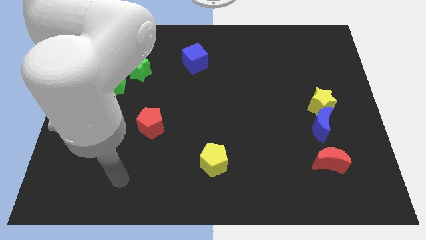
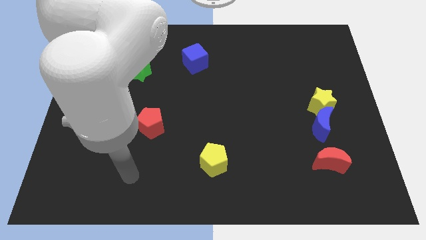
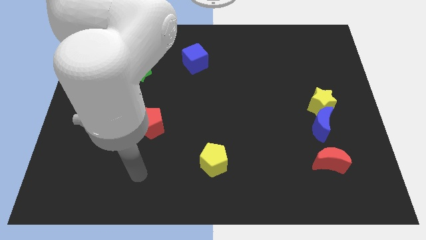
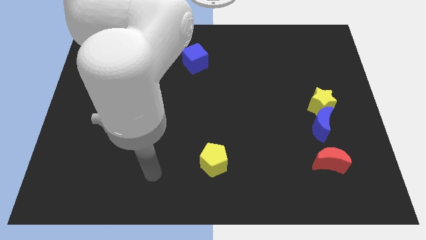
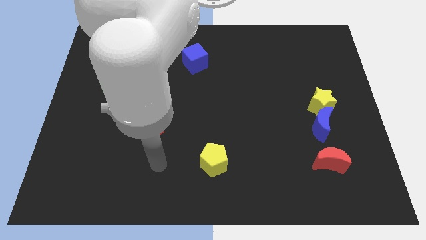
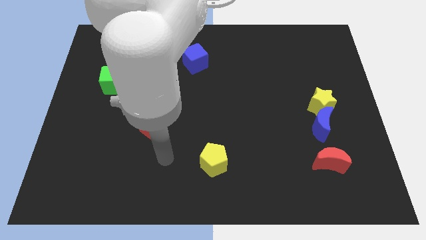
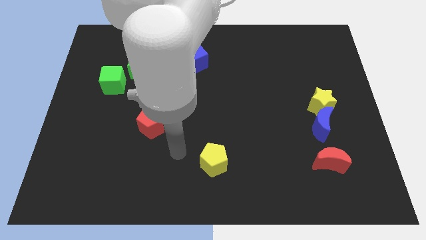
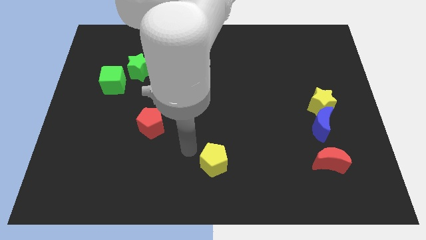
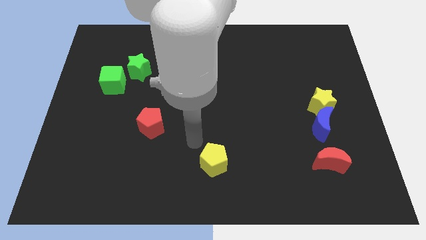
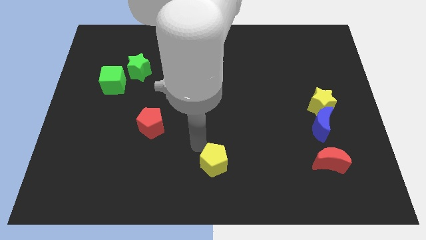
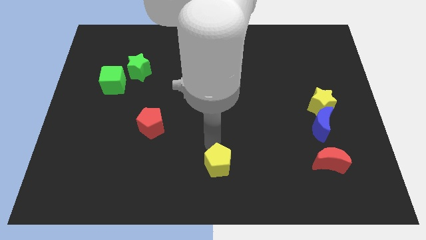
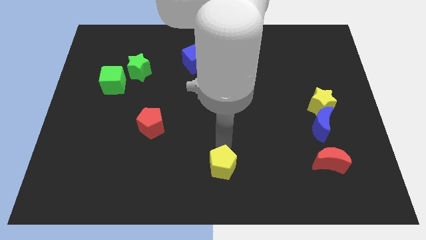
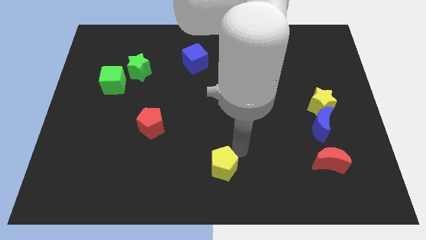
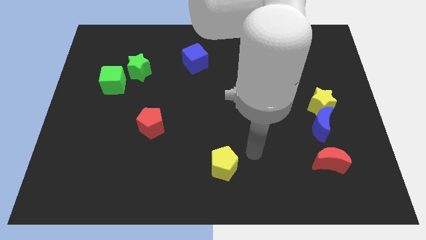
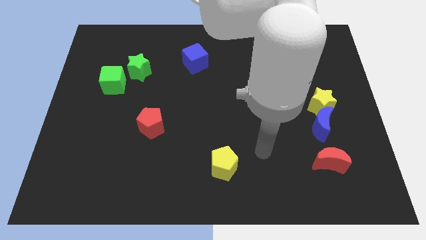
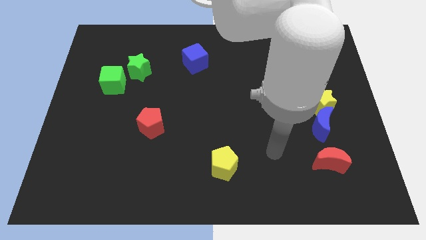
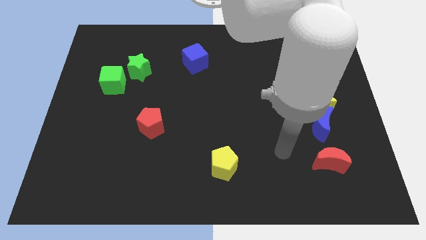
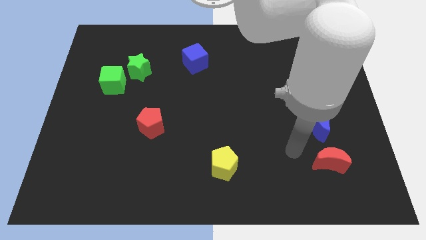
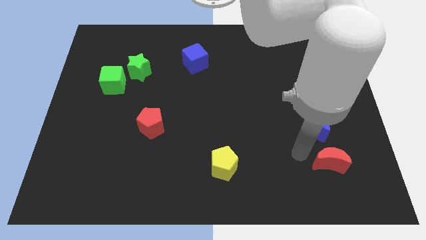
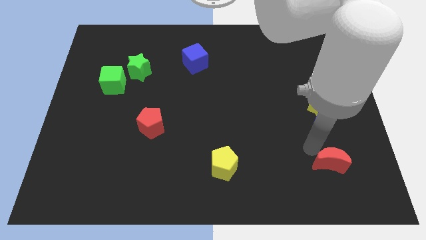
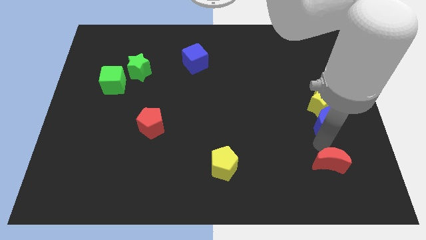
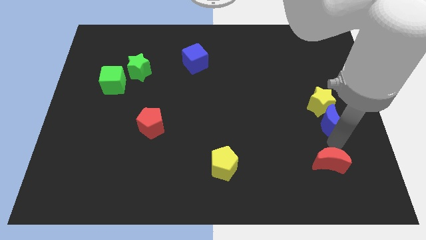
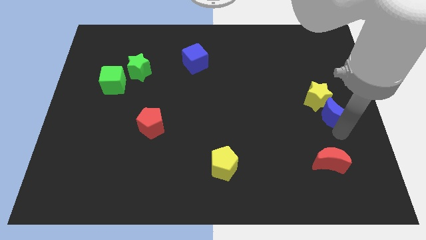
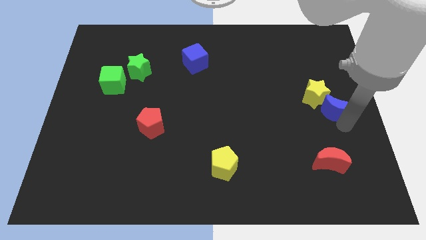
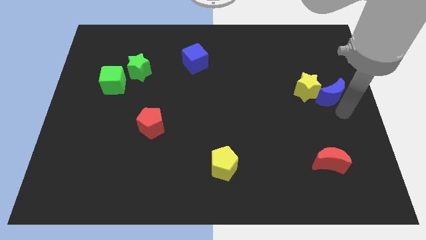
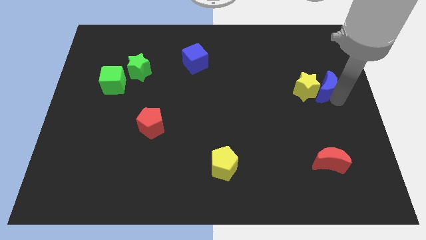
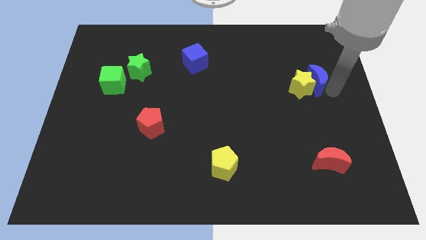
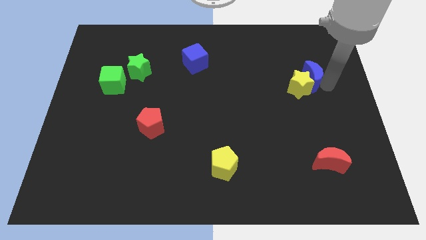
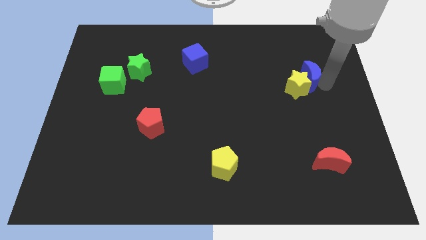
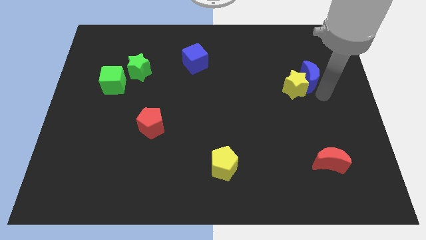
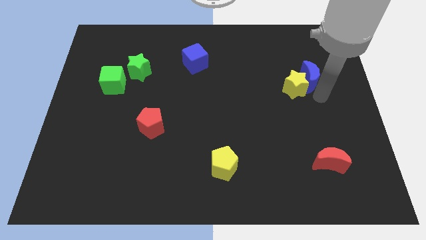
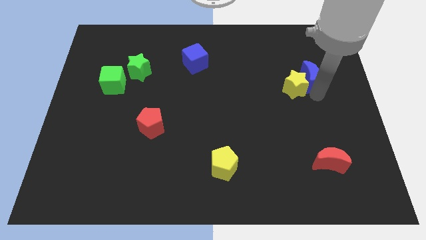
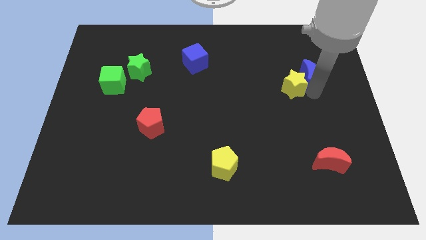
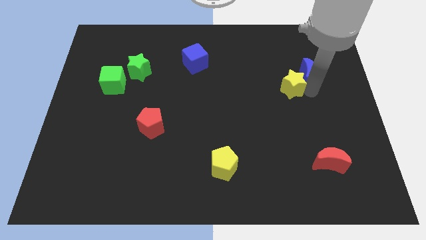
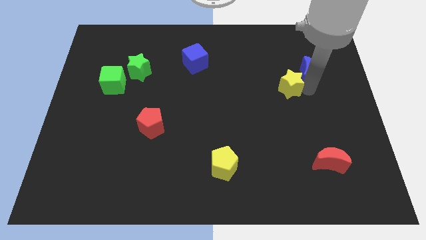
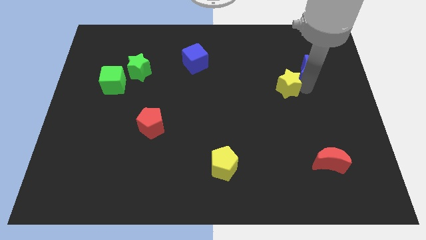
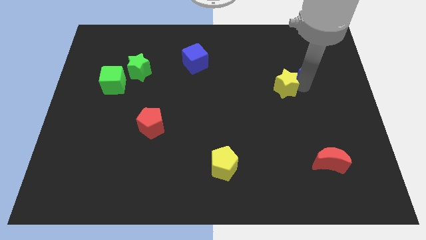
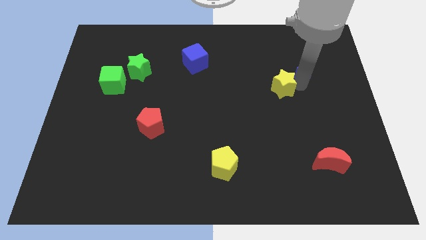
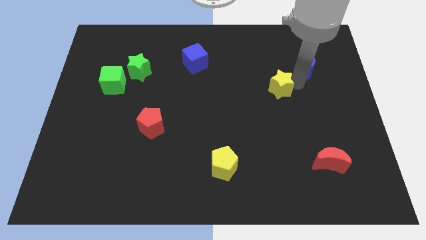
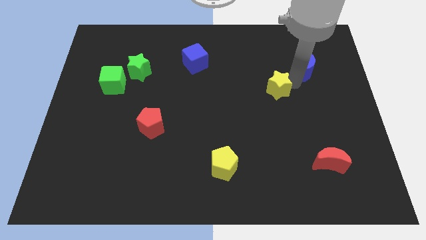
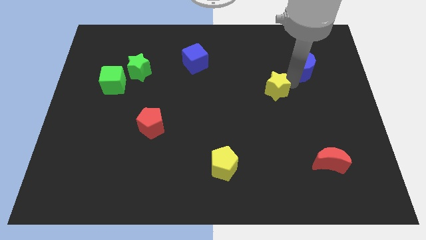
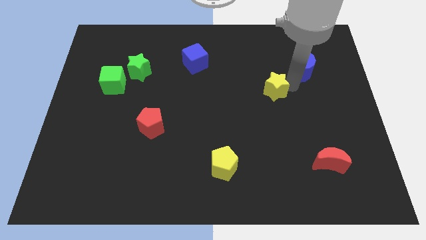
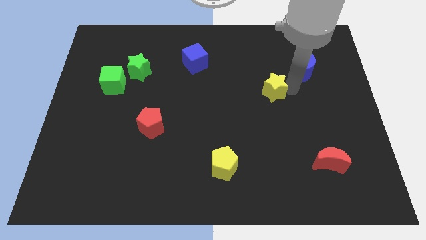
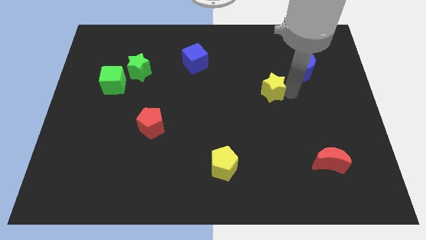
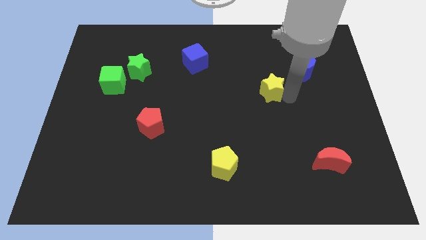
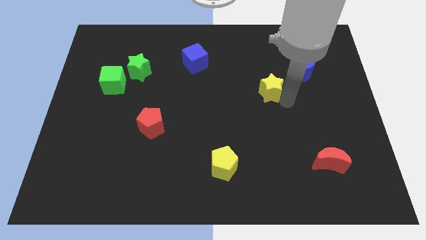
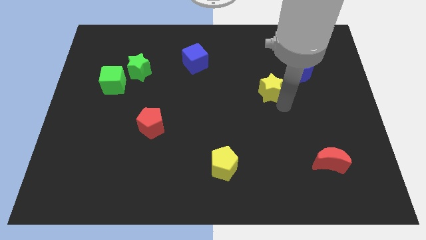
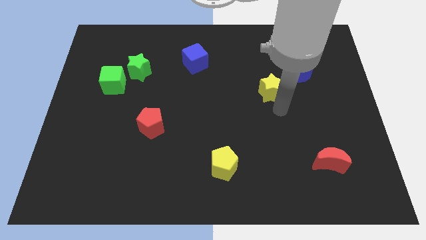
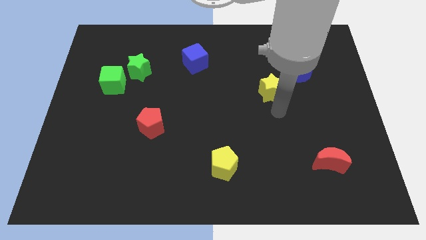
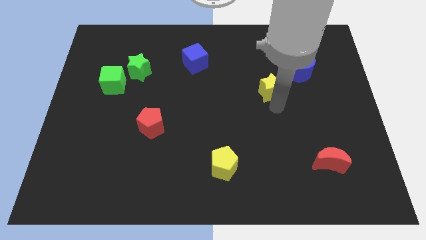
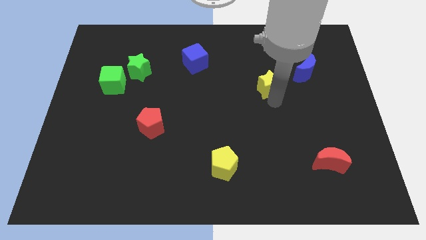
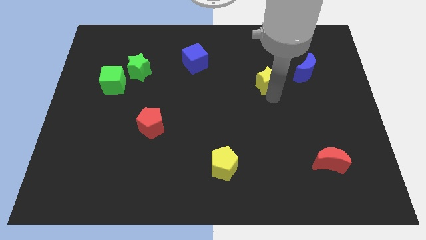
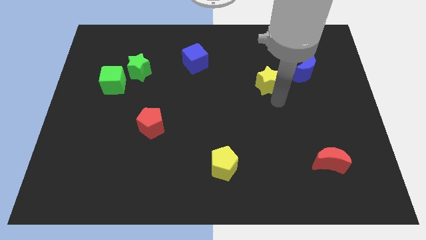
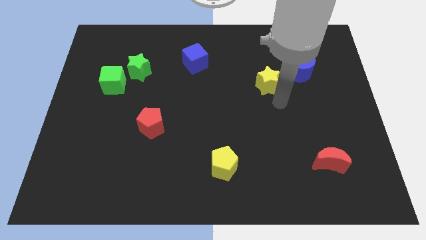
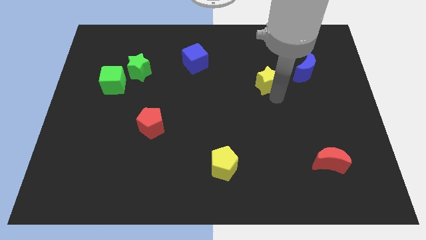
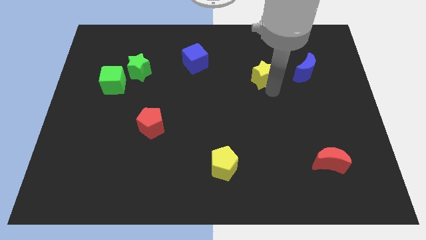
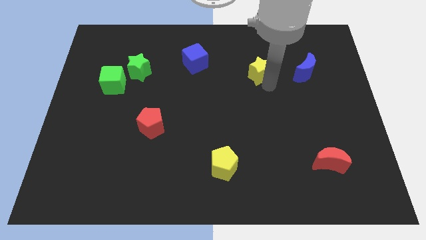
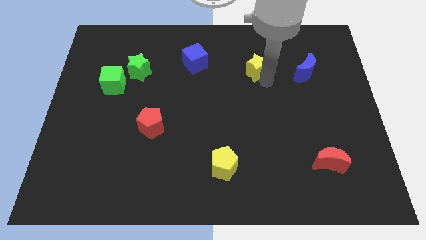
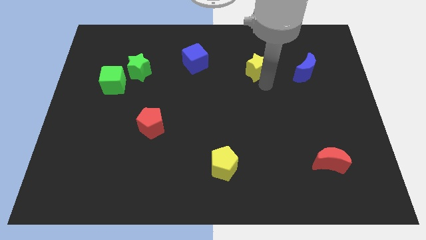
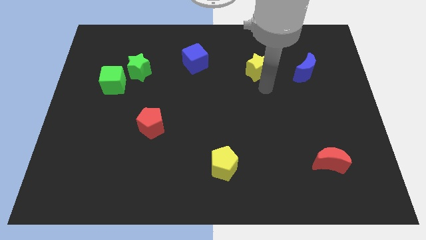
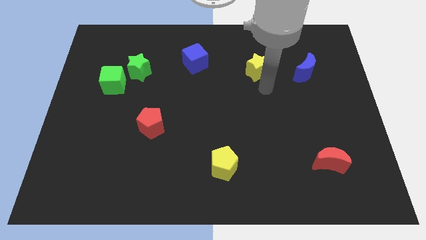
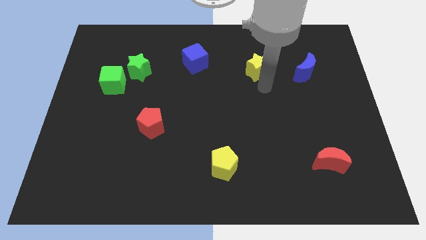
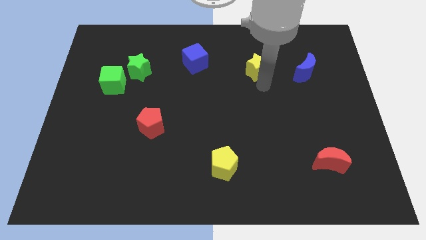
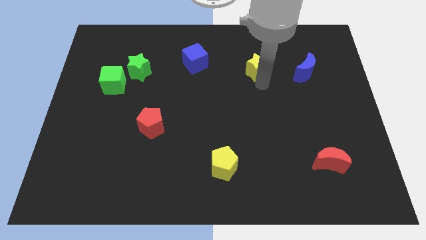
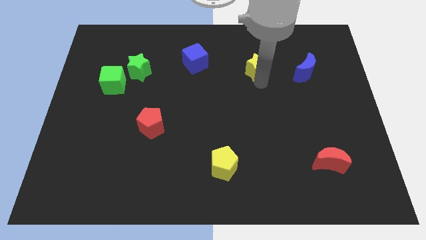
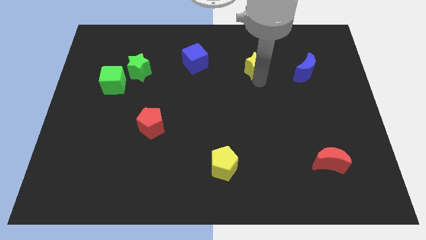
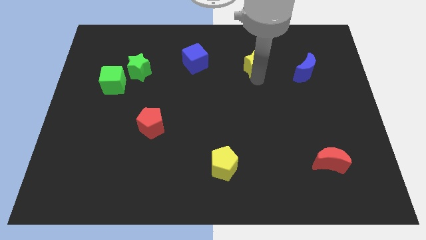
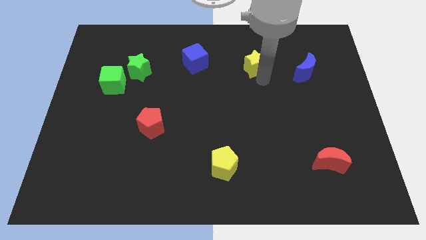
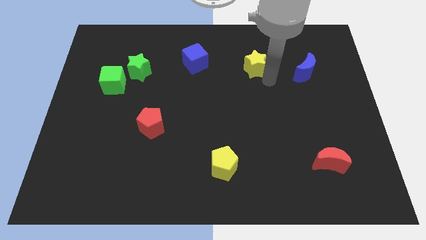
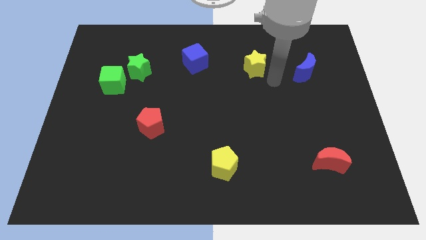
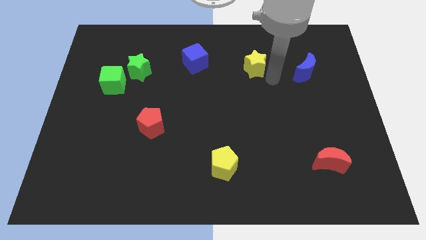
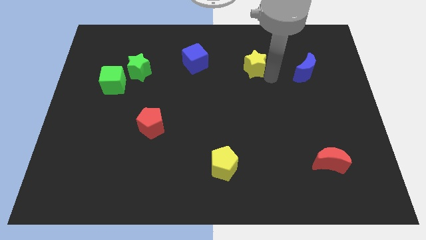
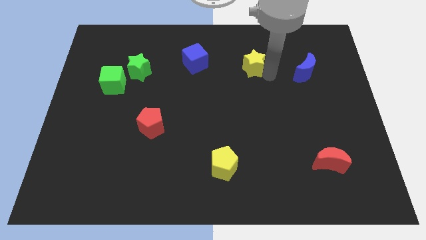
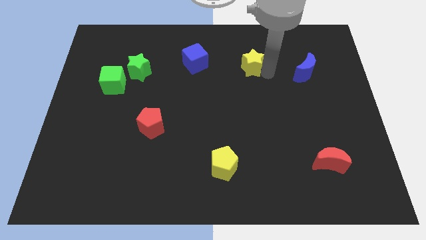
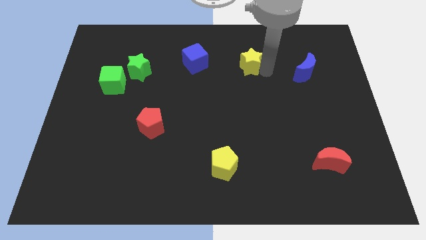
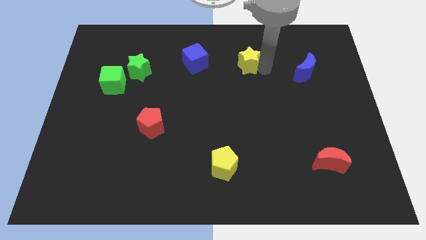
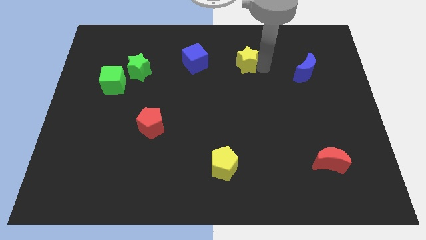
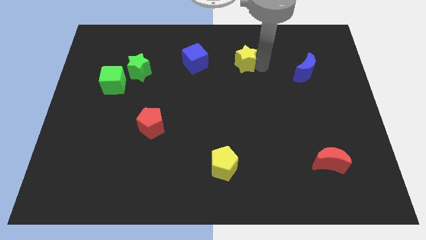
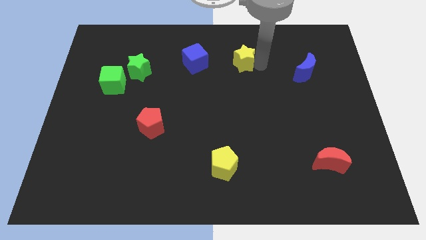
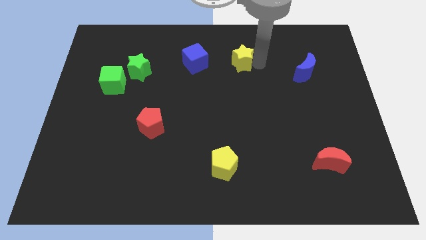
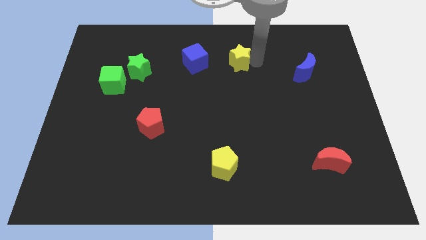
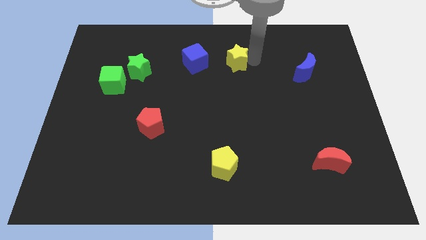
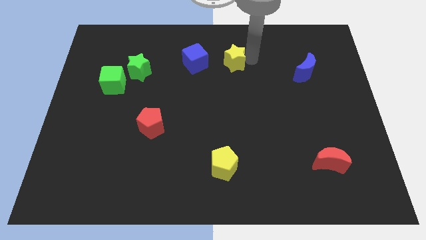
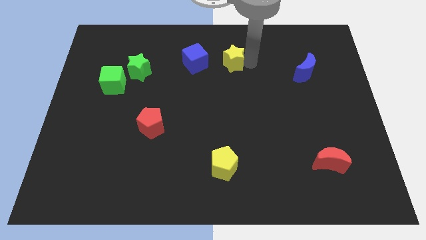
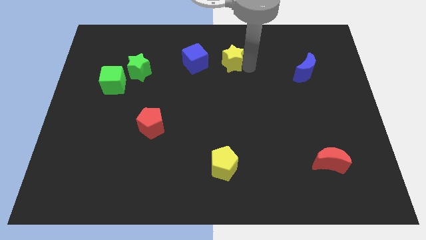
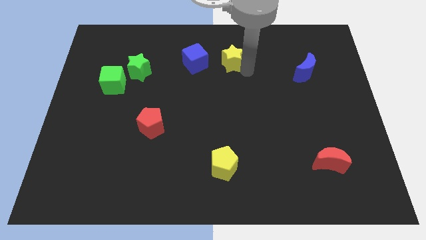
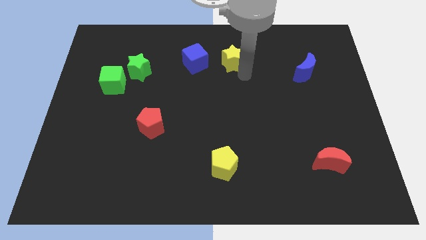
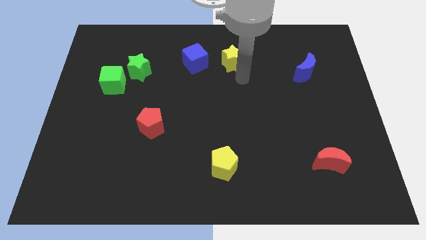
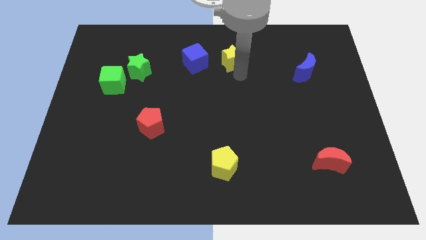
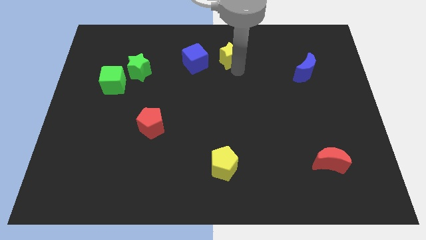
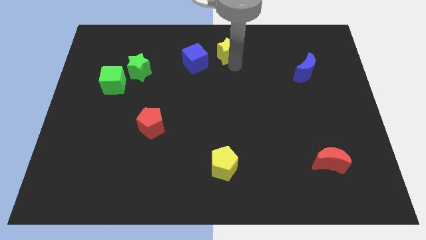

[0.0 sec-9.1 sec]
move the yellow star to the top
